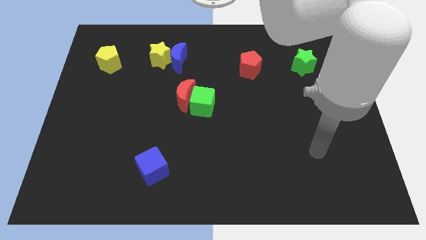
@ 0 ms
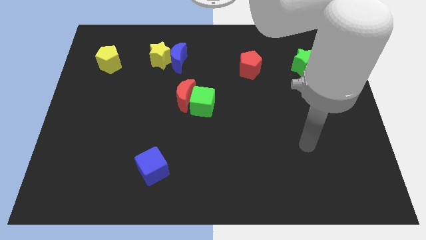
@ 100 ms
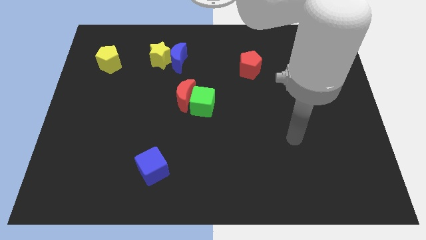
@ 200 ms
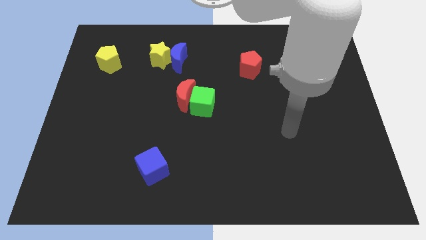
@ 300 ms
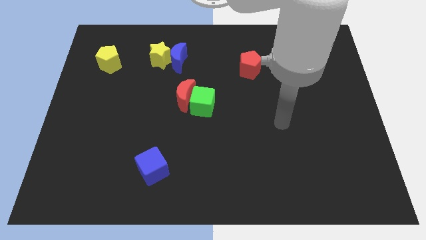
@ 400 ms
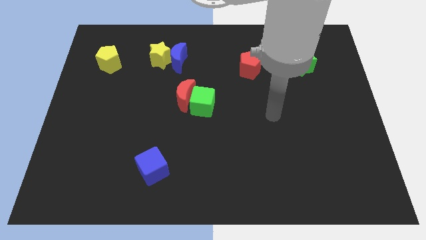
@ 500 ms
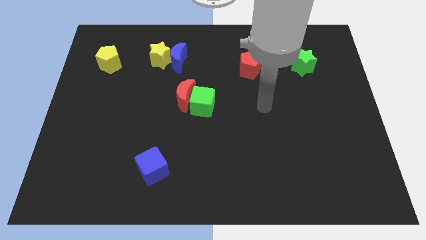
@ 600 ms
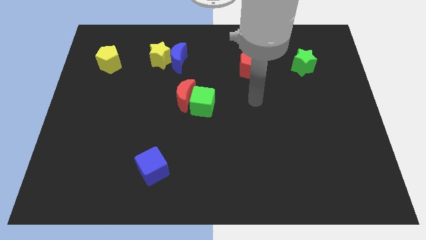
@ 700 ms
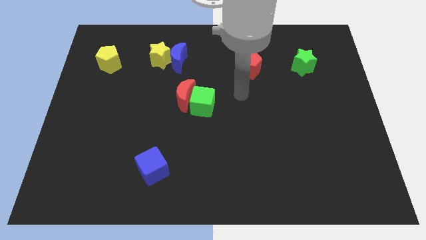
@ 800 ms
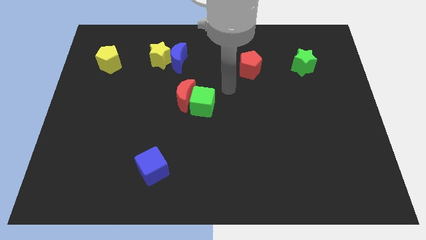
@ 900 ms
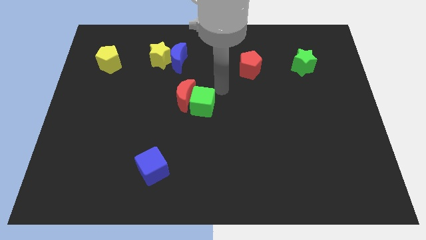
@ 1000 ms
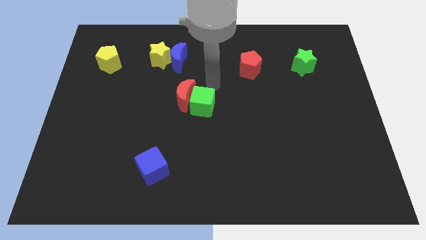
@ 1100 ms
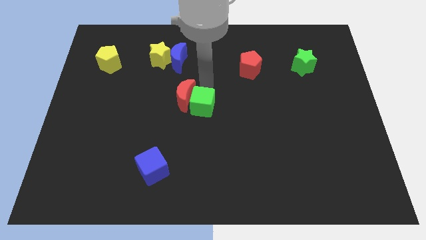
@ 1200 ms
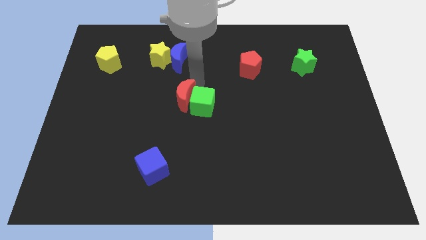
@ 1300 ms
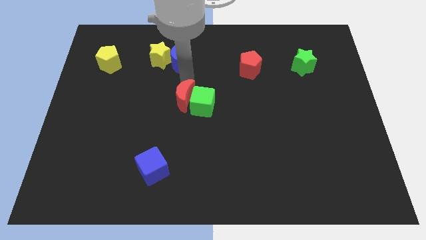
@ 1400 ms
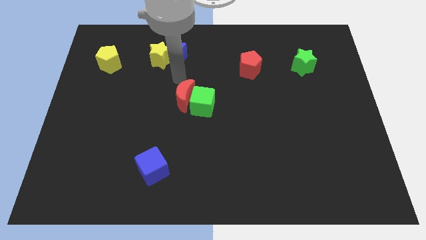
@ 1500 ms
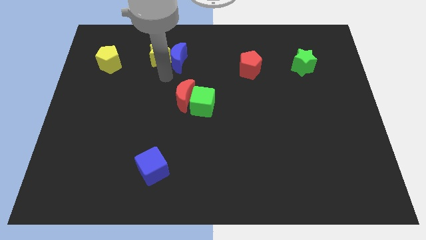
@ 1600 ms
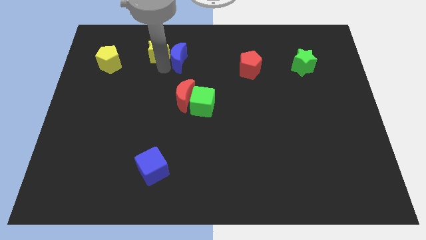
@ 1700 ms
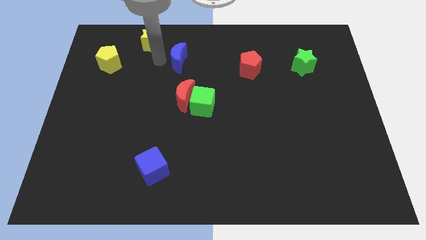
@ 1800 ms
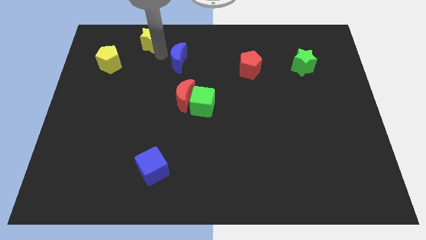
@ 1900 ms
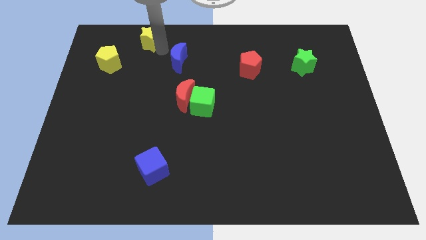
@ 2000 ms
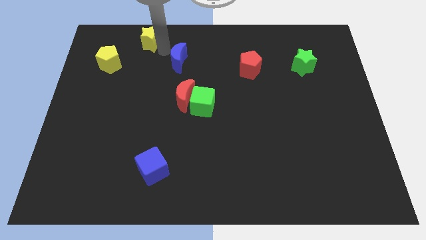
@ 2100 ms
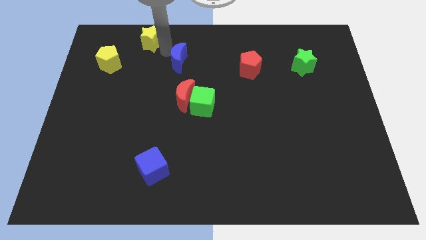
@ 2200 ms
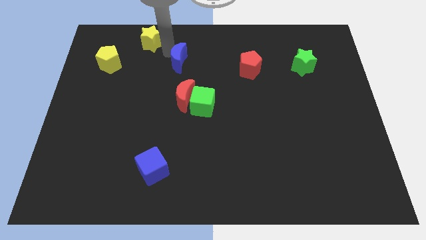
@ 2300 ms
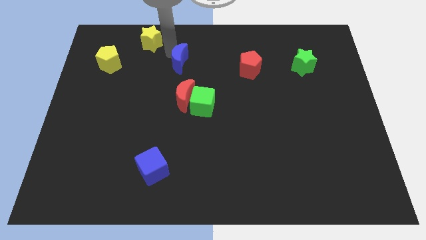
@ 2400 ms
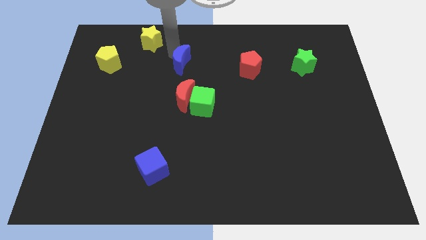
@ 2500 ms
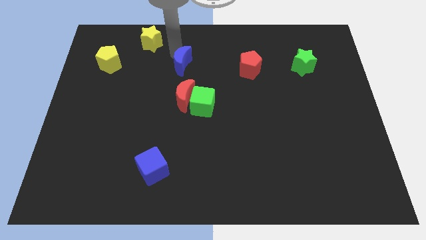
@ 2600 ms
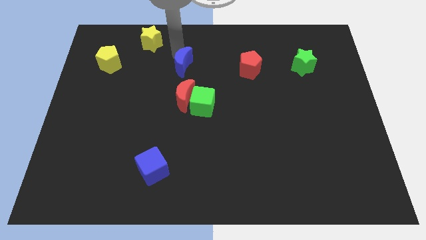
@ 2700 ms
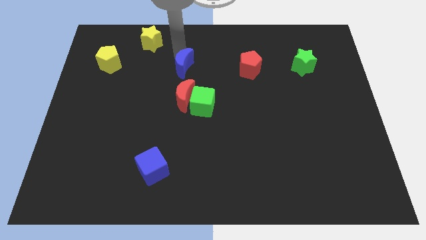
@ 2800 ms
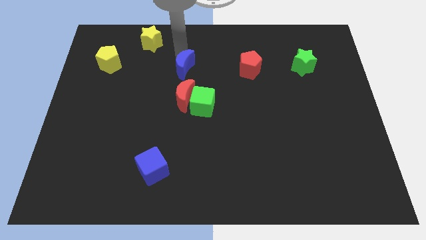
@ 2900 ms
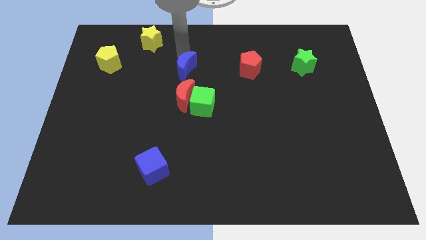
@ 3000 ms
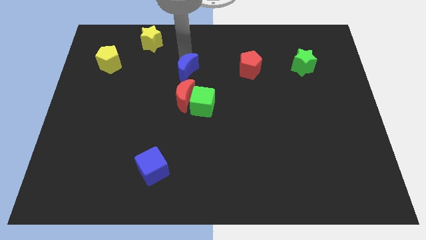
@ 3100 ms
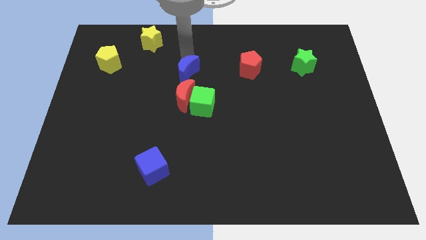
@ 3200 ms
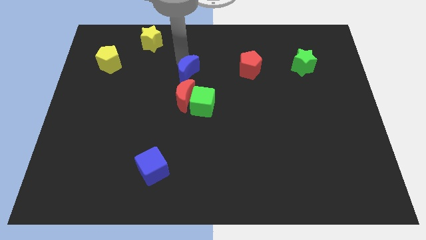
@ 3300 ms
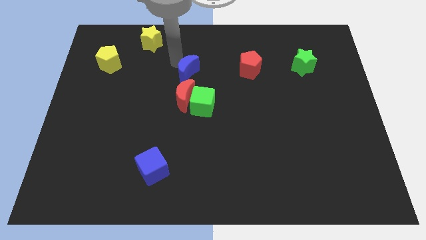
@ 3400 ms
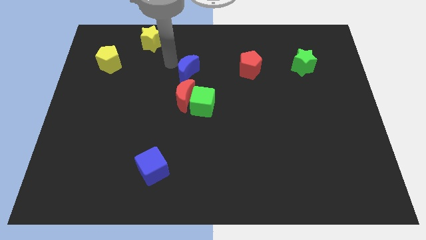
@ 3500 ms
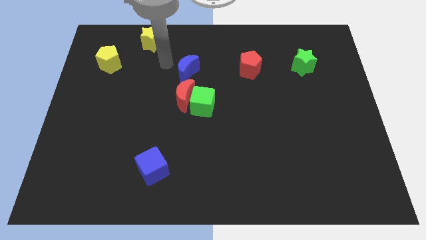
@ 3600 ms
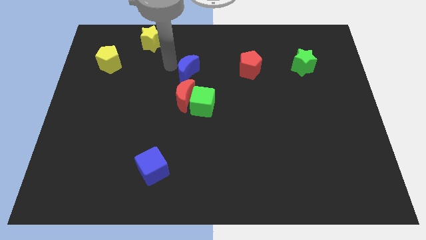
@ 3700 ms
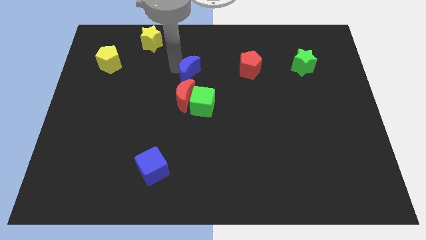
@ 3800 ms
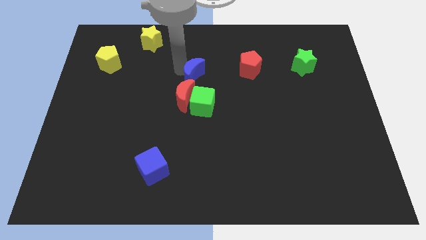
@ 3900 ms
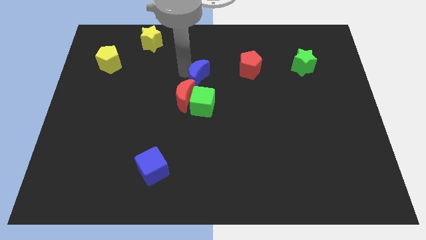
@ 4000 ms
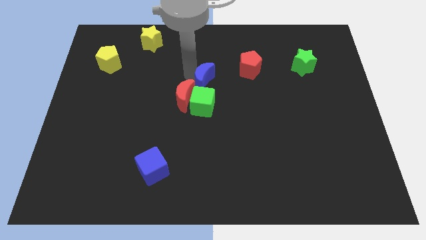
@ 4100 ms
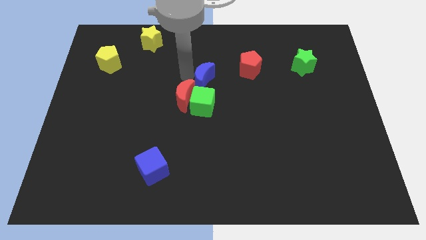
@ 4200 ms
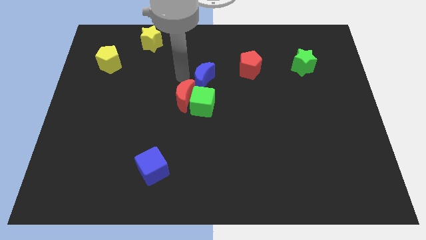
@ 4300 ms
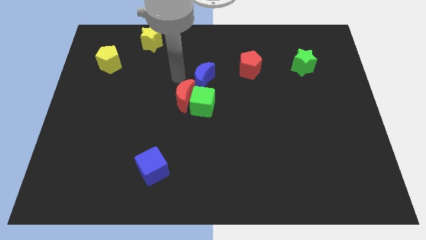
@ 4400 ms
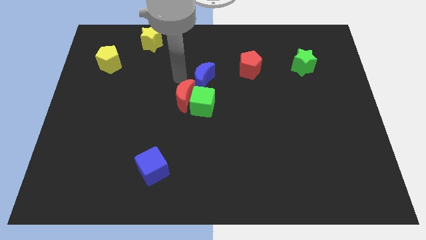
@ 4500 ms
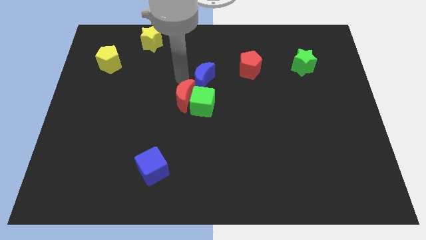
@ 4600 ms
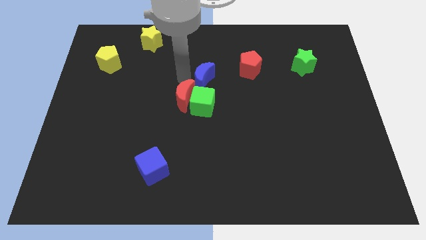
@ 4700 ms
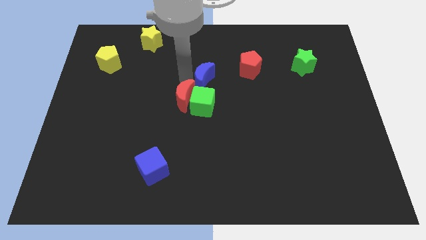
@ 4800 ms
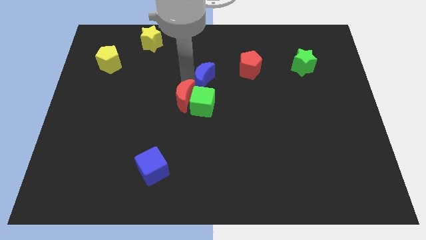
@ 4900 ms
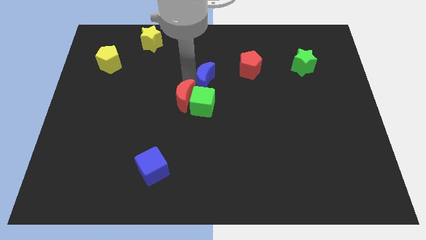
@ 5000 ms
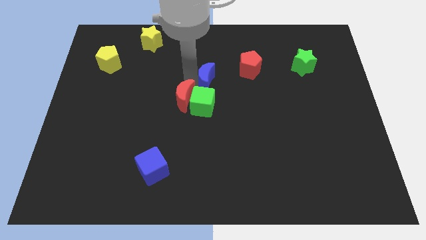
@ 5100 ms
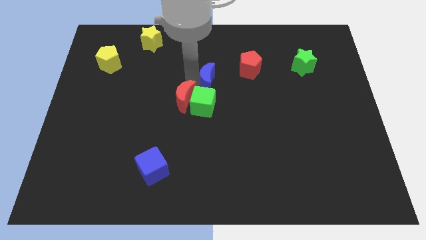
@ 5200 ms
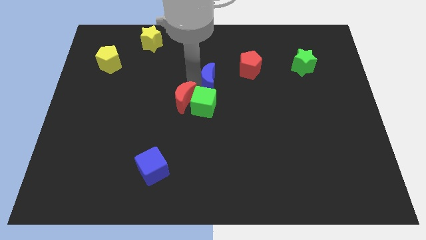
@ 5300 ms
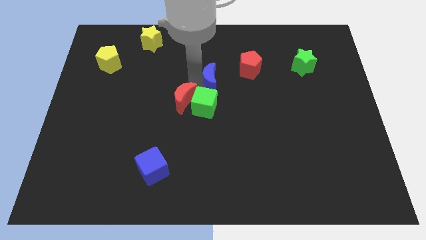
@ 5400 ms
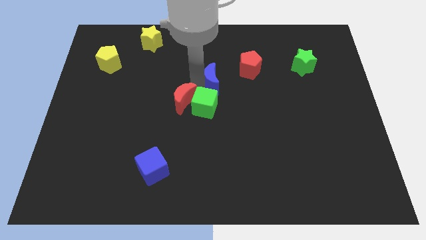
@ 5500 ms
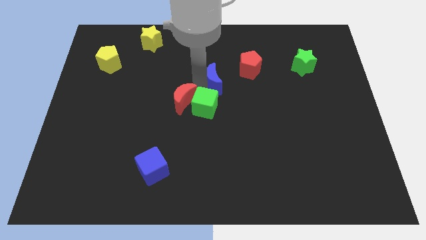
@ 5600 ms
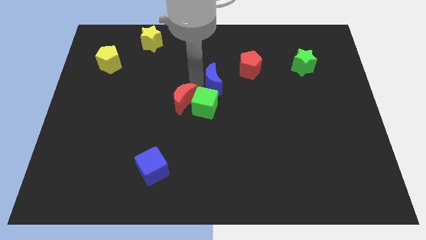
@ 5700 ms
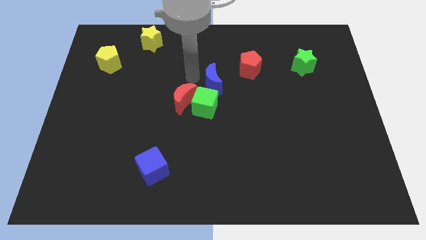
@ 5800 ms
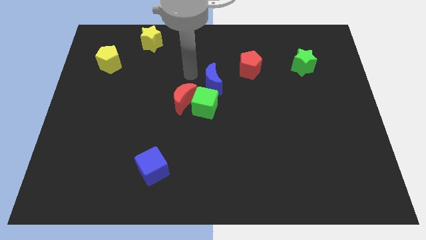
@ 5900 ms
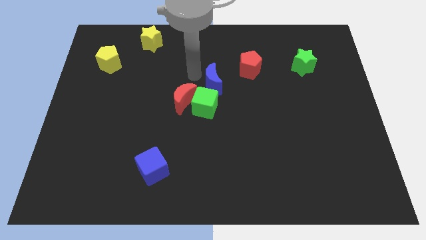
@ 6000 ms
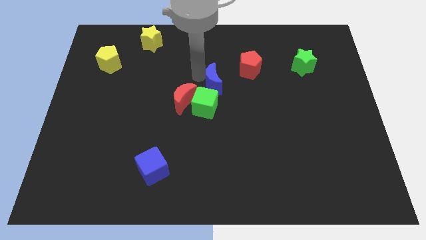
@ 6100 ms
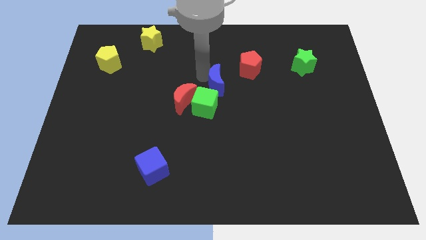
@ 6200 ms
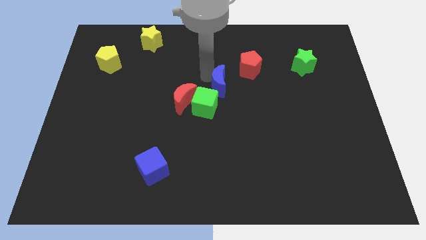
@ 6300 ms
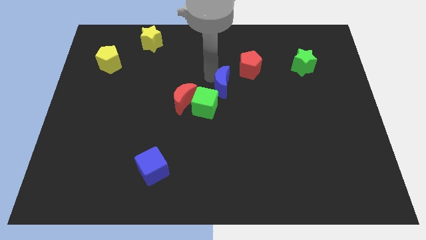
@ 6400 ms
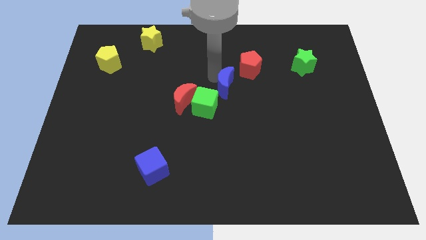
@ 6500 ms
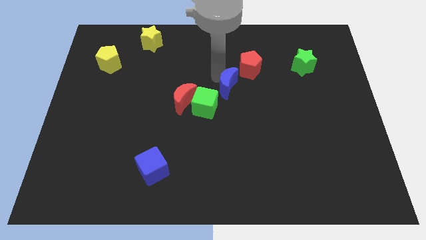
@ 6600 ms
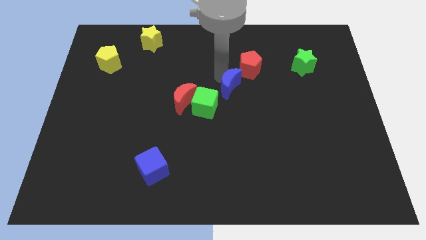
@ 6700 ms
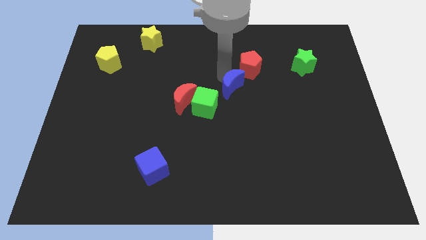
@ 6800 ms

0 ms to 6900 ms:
move the blue moon to the bottom side of the red pentagon

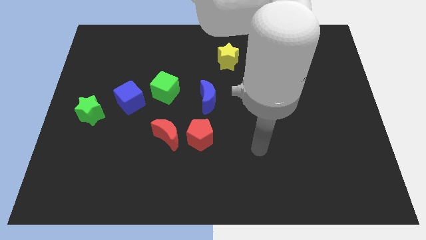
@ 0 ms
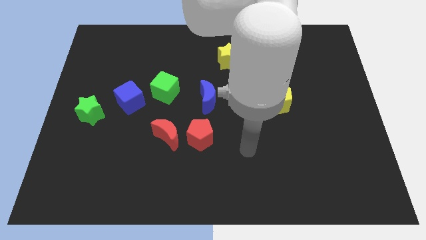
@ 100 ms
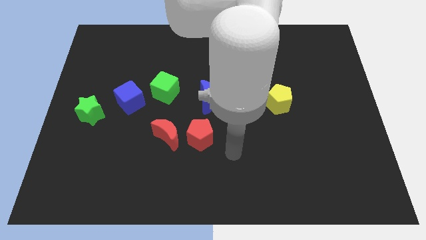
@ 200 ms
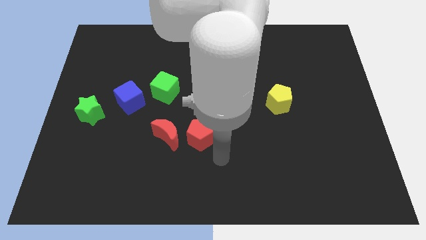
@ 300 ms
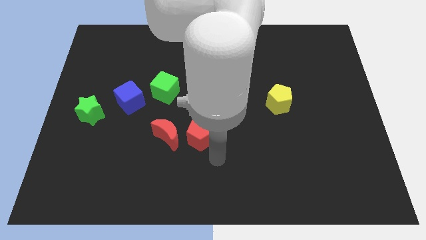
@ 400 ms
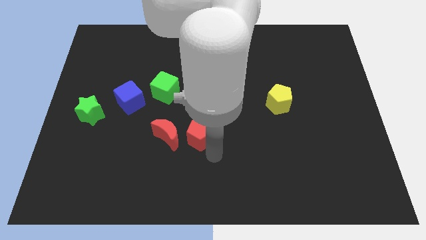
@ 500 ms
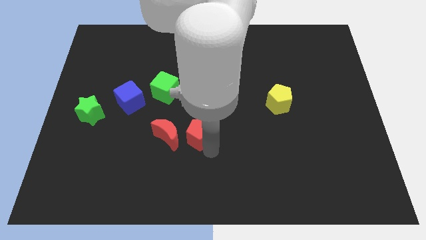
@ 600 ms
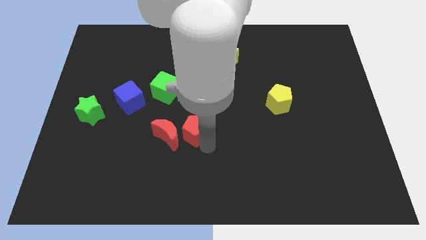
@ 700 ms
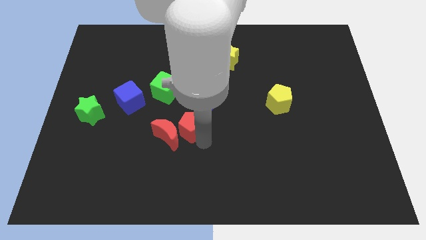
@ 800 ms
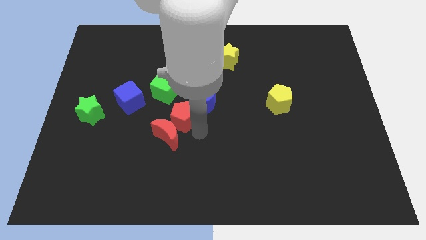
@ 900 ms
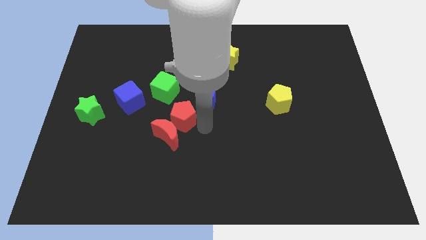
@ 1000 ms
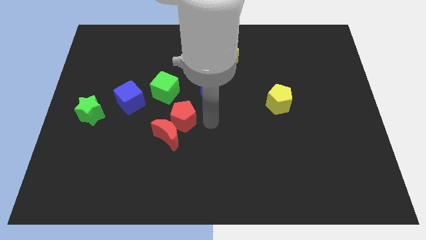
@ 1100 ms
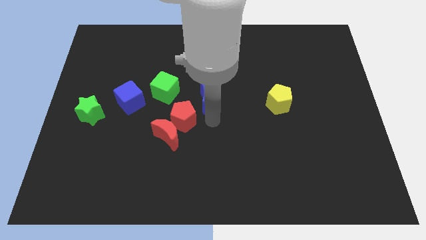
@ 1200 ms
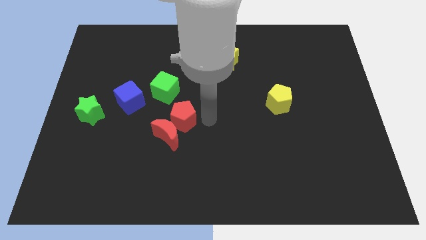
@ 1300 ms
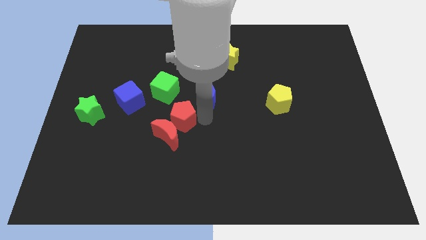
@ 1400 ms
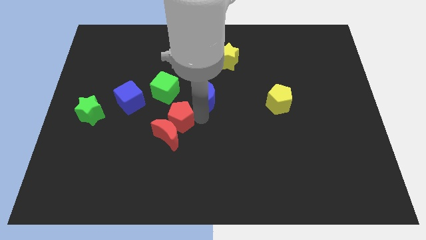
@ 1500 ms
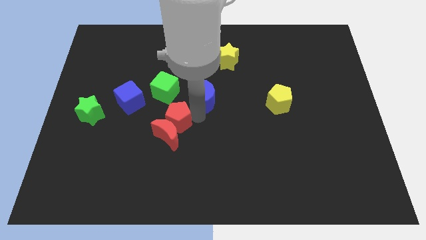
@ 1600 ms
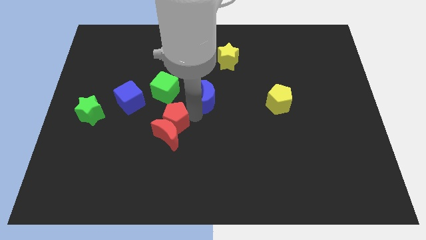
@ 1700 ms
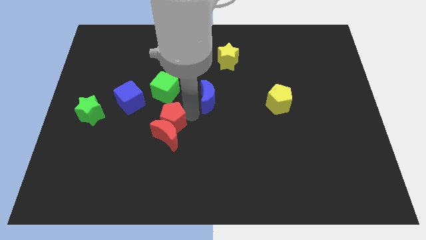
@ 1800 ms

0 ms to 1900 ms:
push the red pentagon diagonally down and to the right of the blue cube
